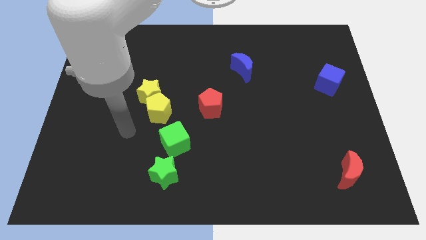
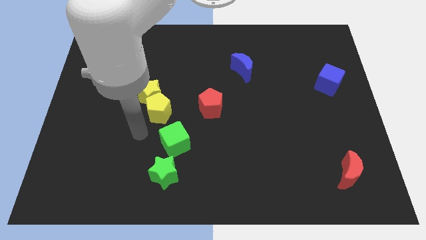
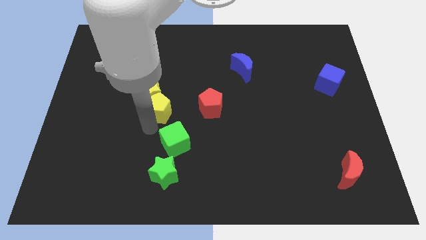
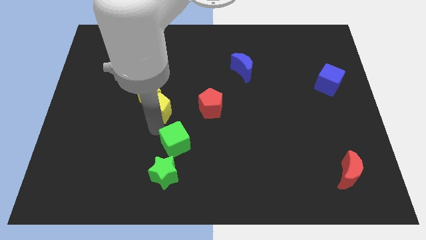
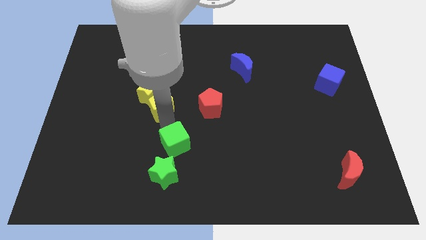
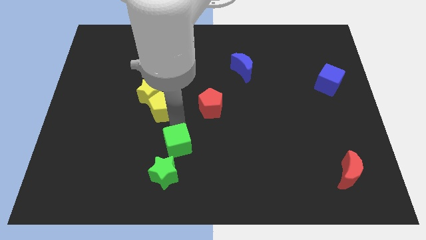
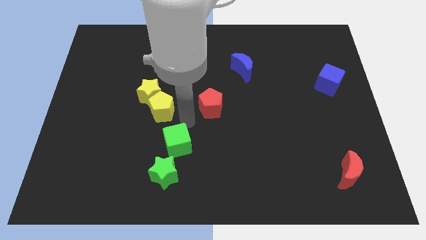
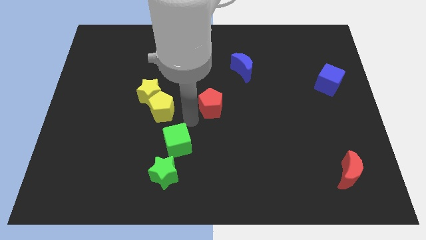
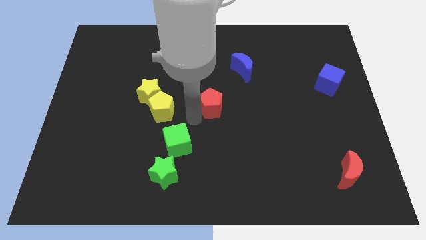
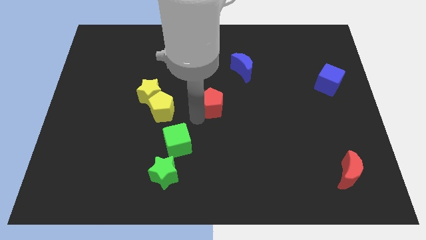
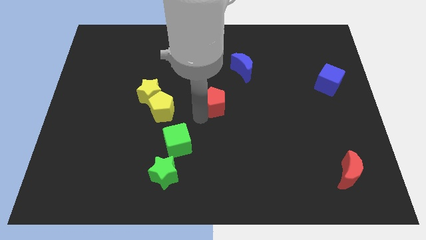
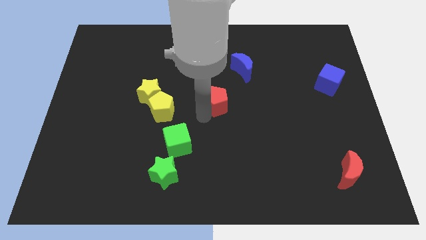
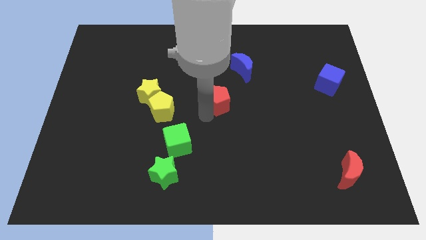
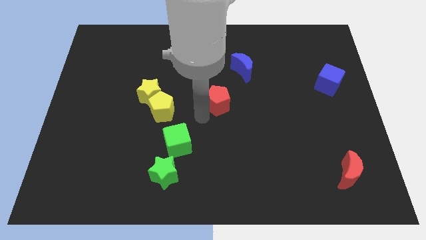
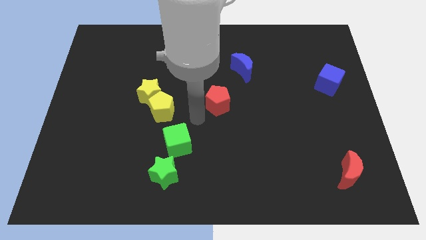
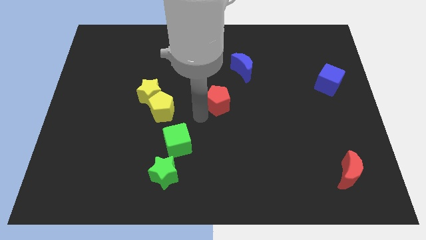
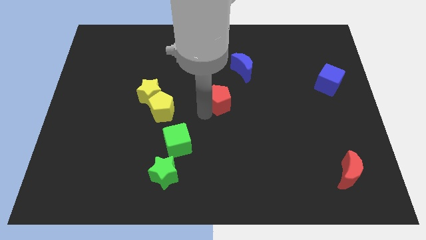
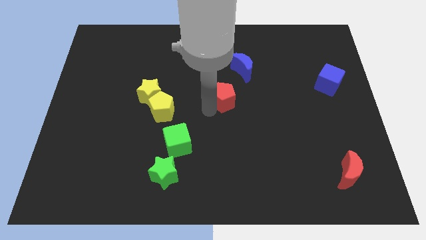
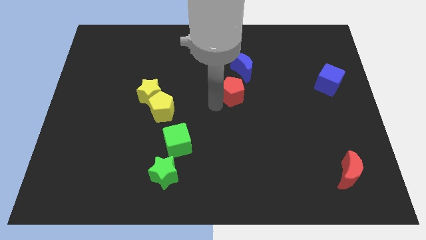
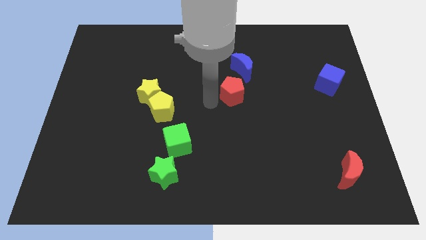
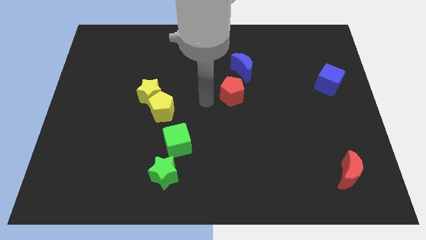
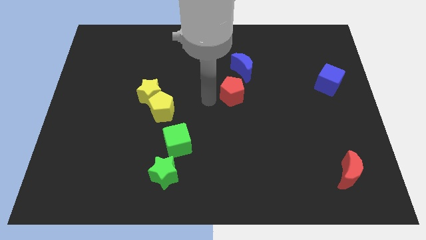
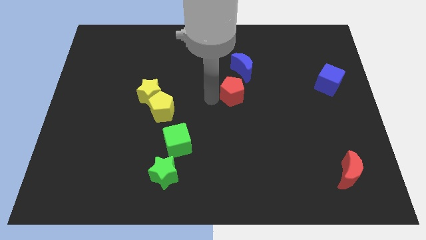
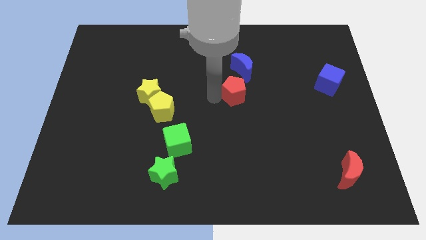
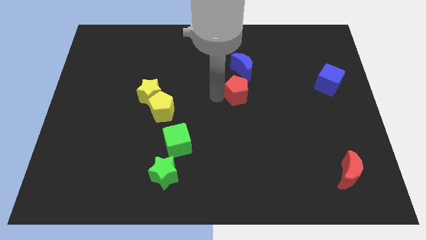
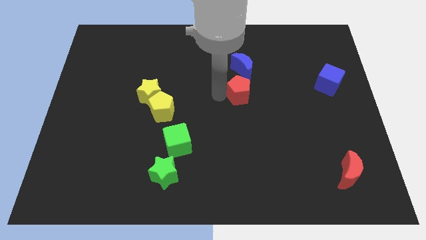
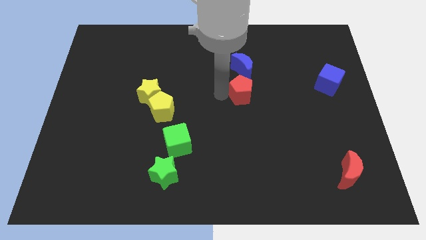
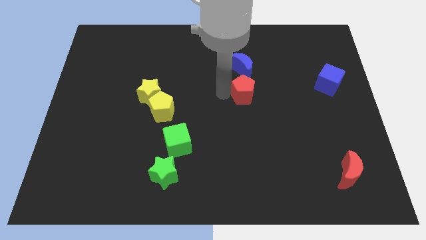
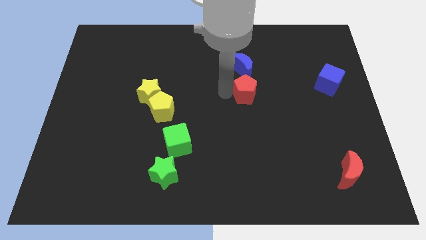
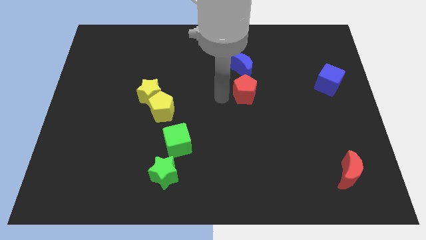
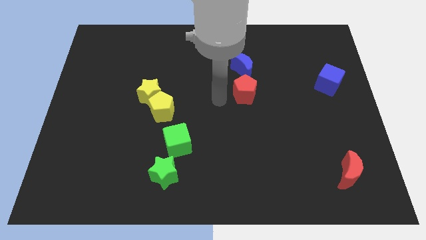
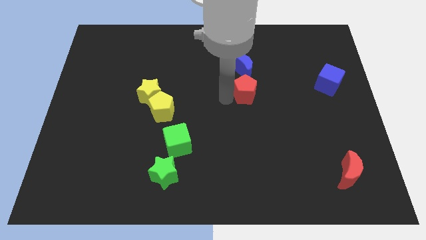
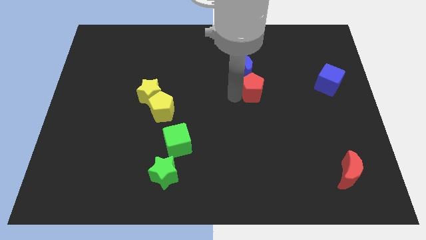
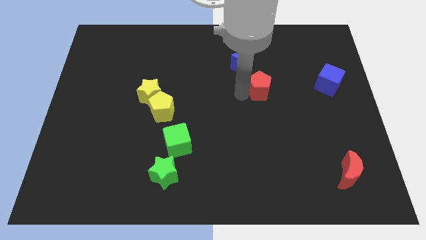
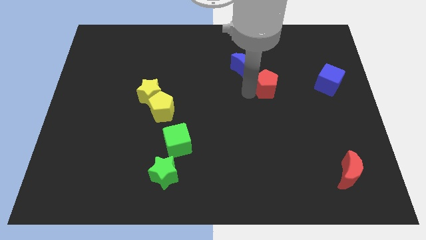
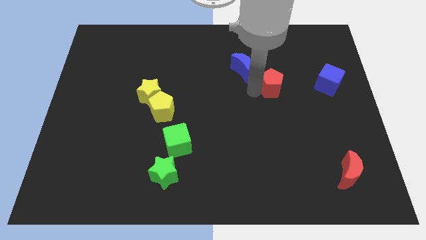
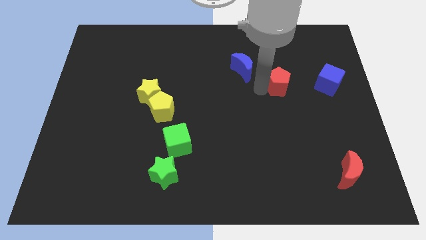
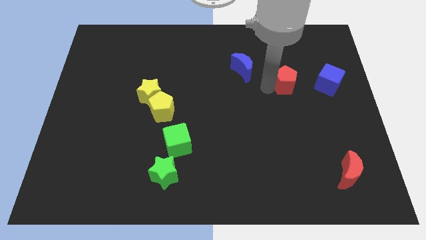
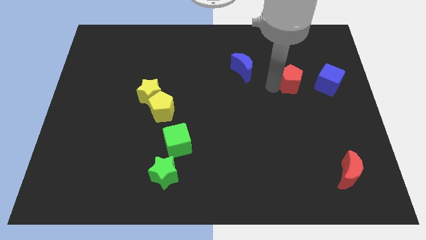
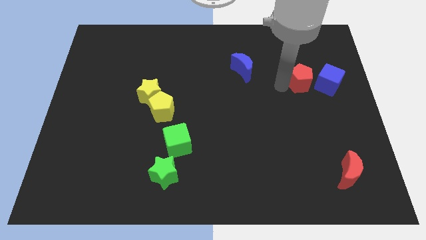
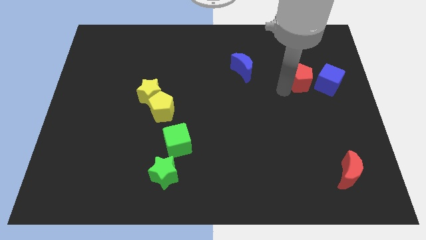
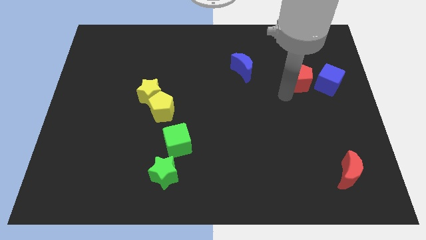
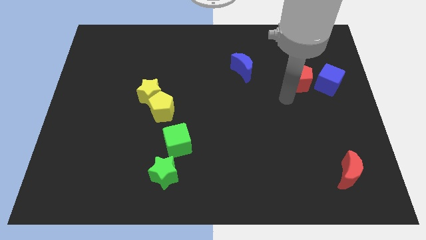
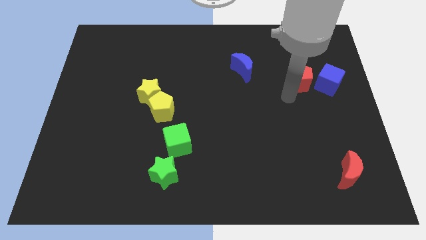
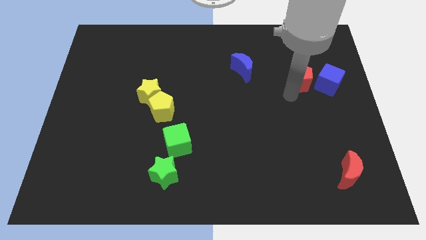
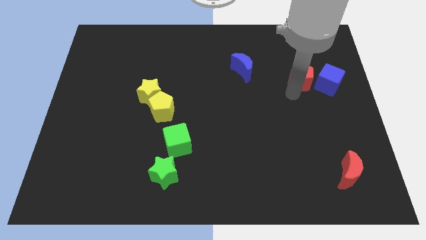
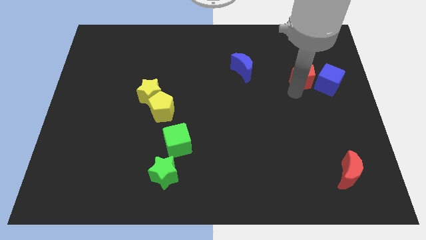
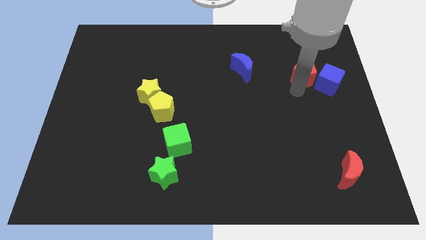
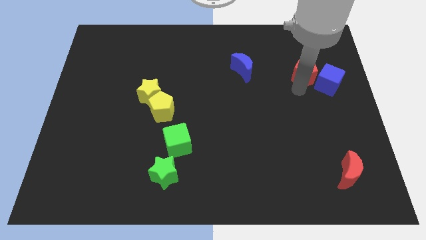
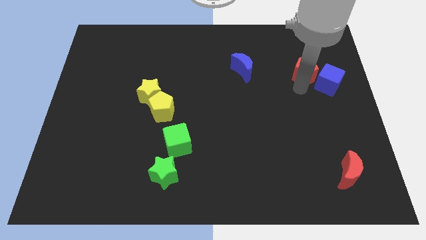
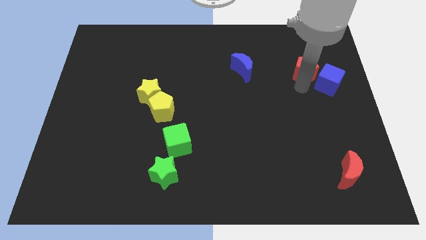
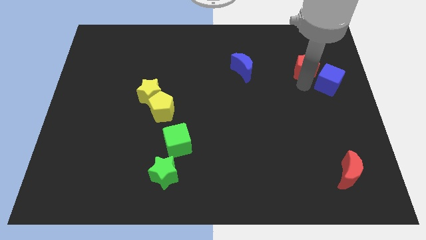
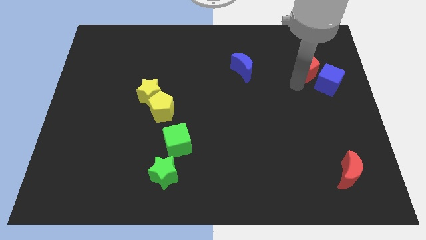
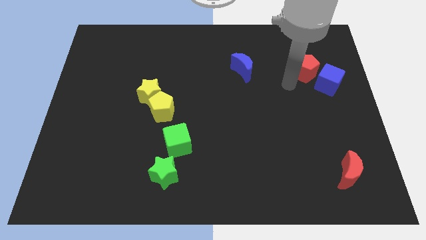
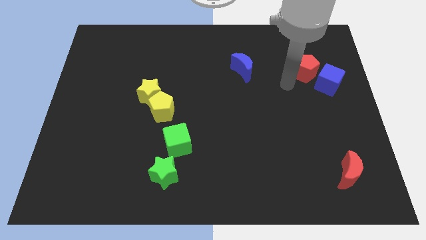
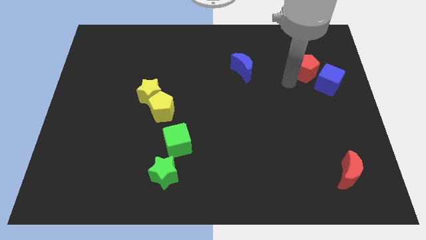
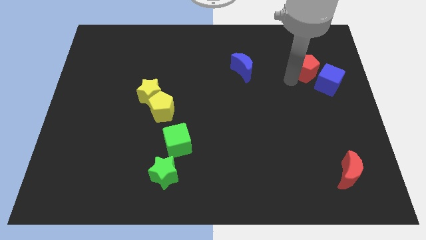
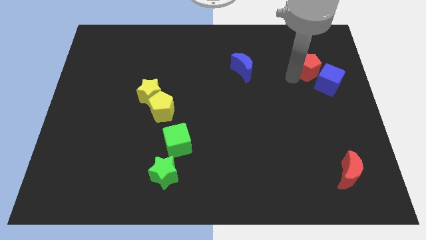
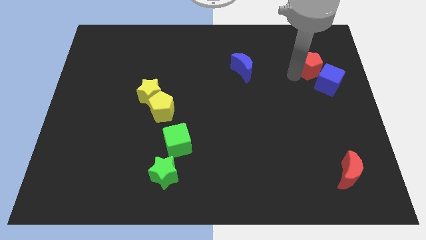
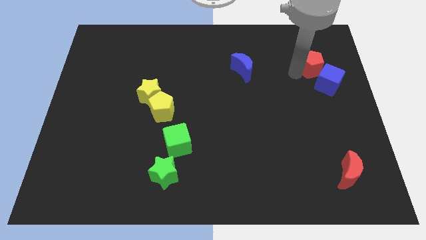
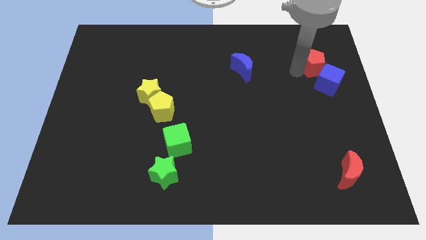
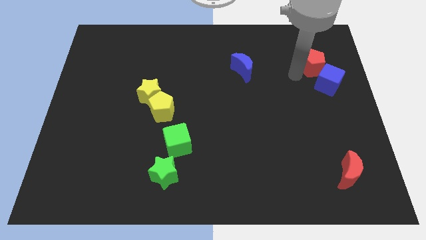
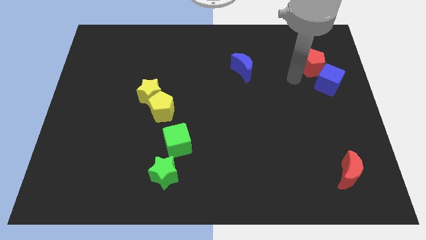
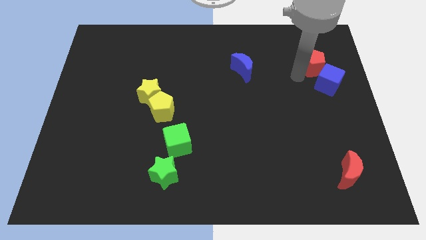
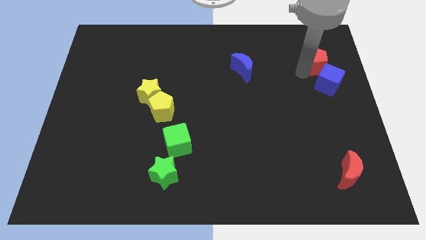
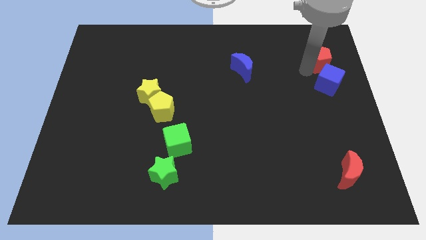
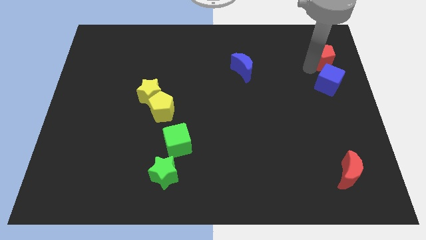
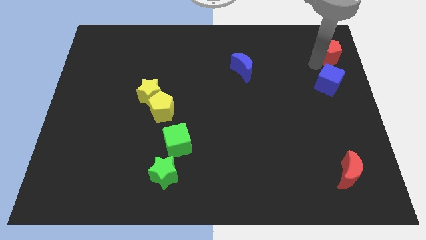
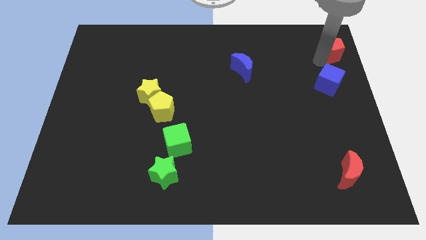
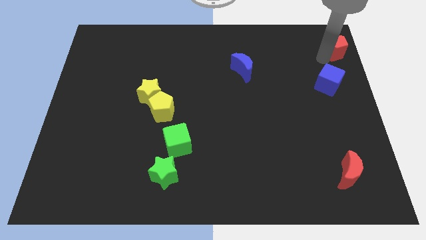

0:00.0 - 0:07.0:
push the red pentagon to the top right corner
